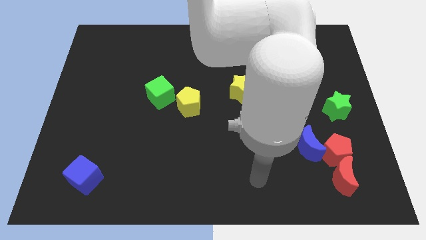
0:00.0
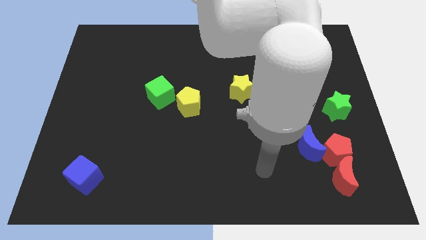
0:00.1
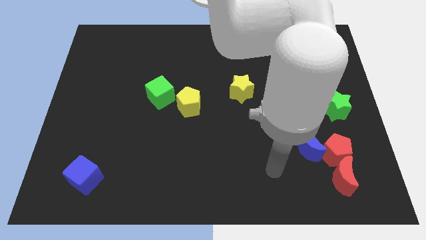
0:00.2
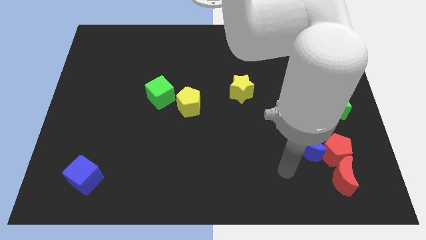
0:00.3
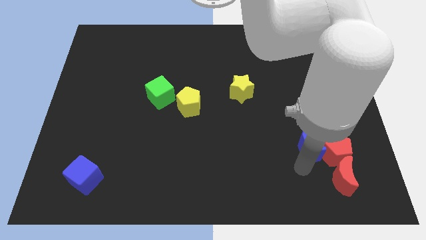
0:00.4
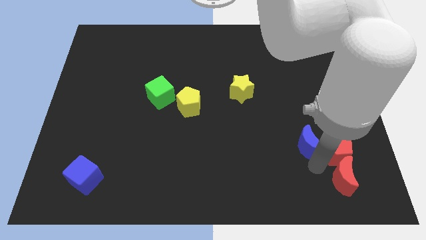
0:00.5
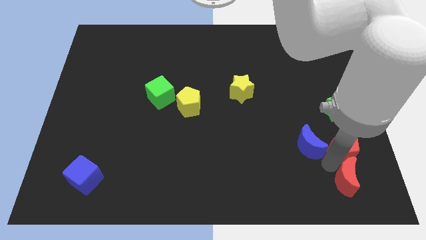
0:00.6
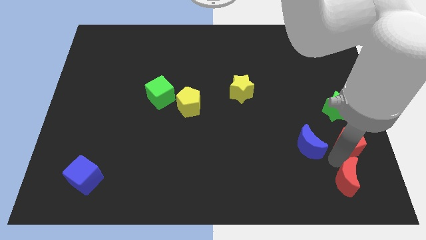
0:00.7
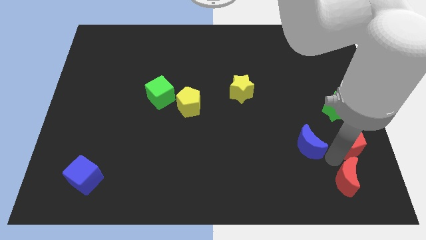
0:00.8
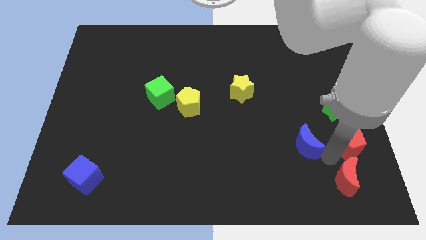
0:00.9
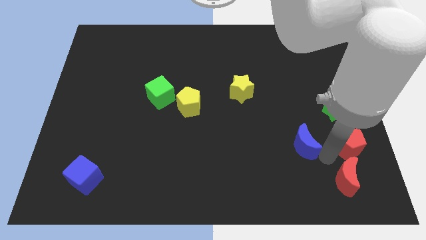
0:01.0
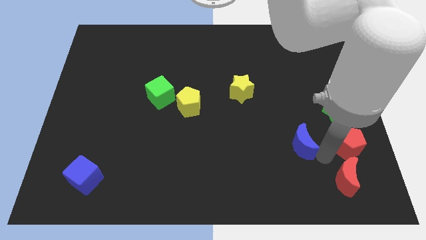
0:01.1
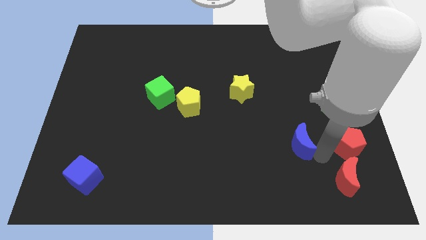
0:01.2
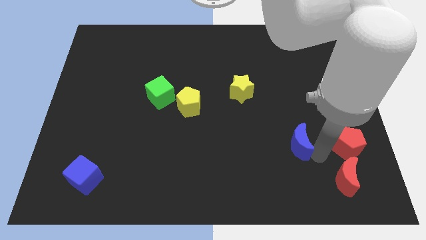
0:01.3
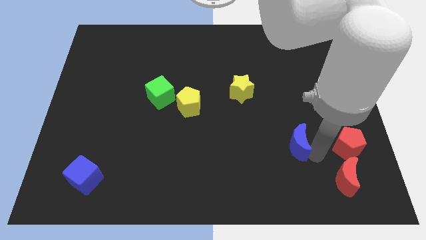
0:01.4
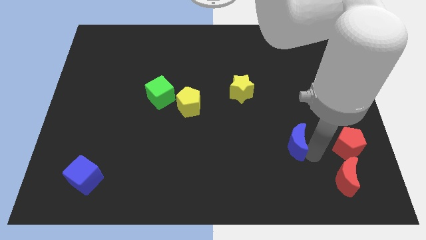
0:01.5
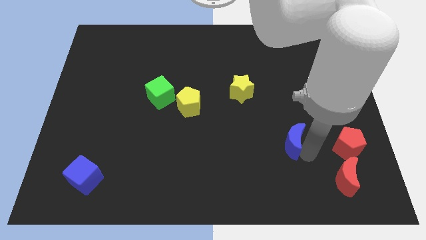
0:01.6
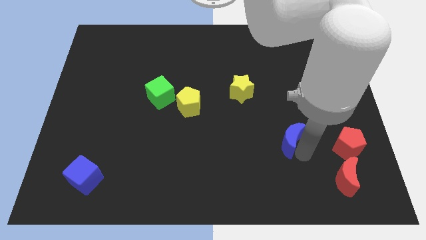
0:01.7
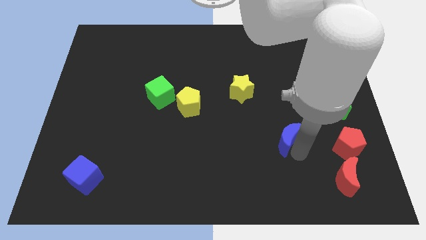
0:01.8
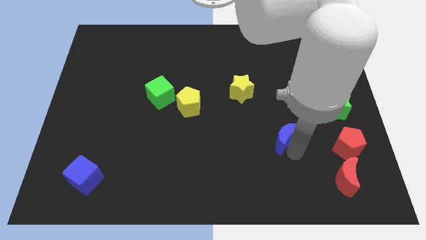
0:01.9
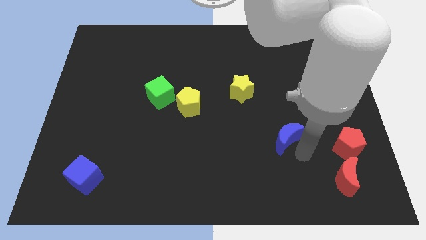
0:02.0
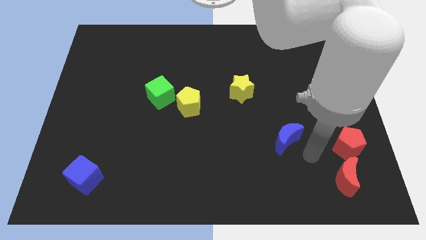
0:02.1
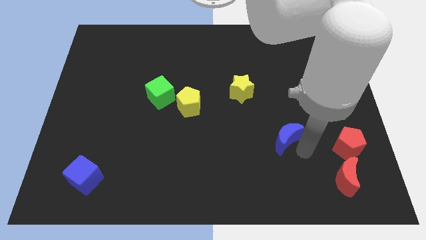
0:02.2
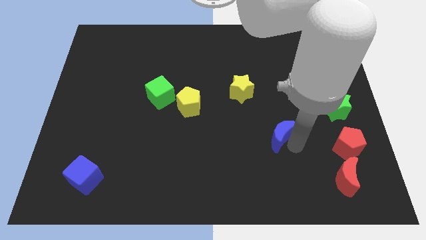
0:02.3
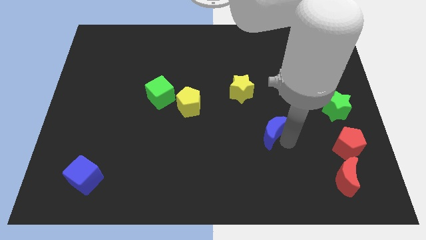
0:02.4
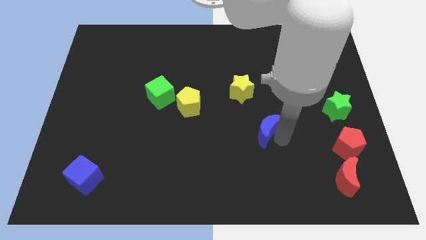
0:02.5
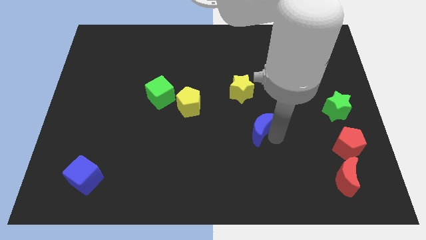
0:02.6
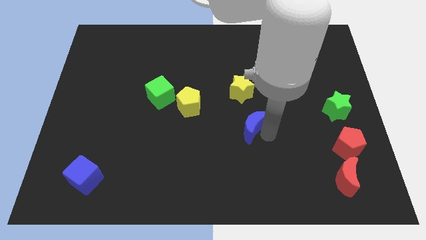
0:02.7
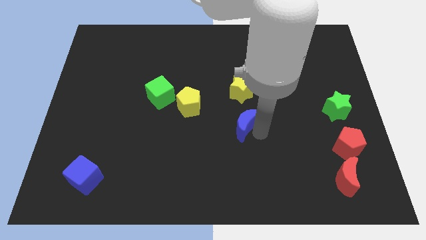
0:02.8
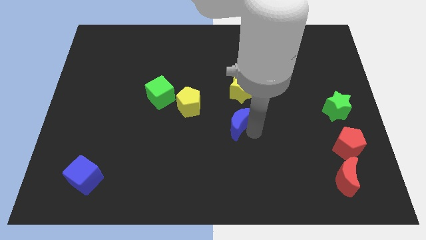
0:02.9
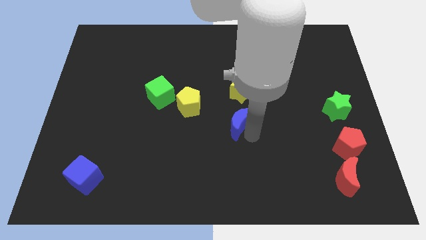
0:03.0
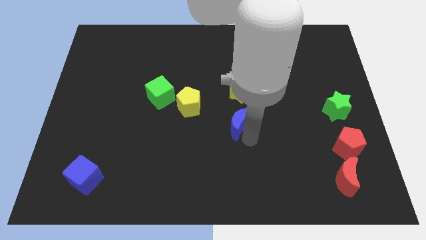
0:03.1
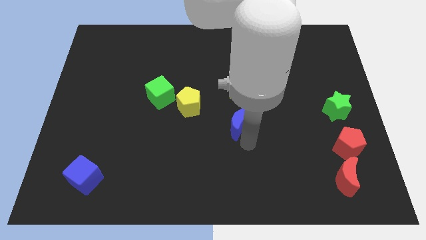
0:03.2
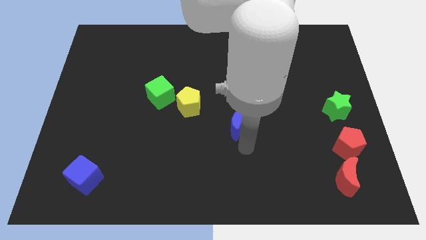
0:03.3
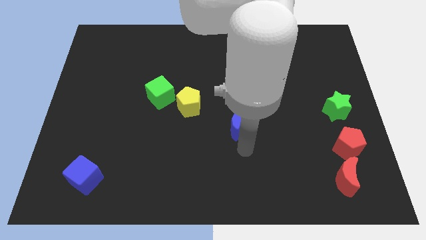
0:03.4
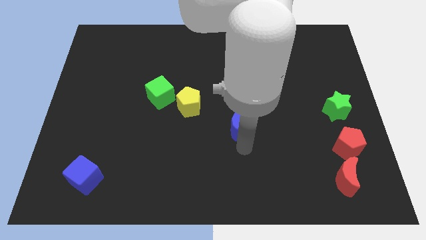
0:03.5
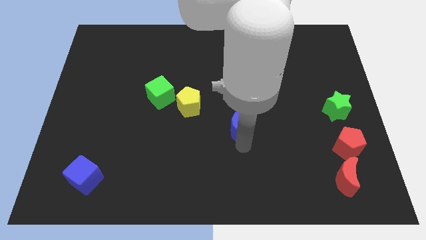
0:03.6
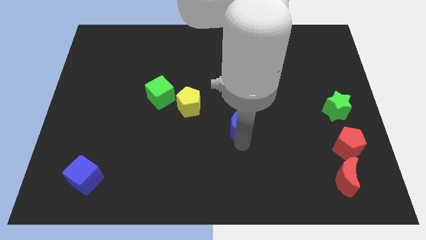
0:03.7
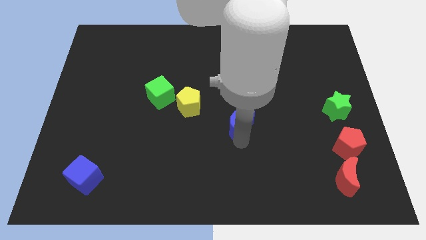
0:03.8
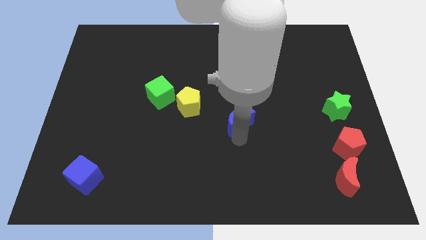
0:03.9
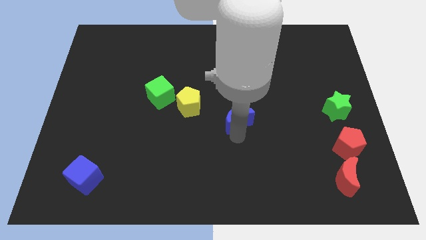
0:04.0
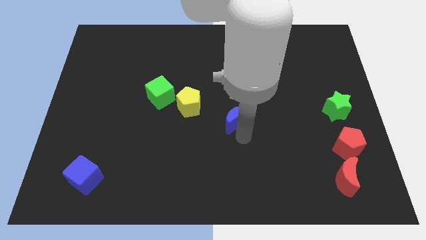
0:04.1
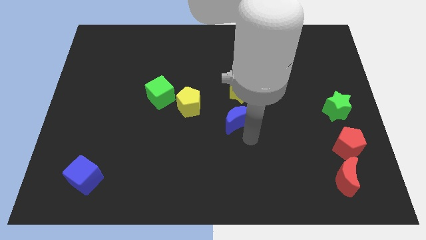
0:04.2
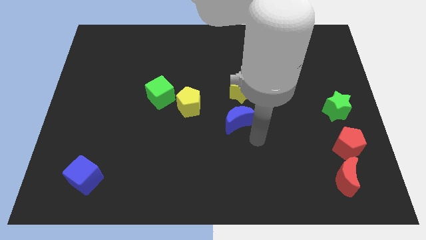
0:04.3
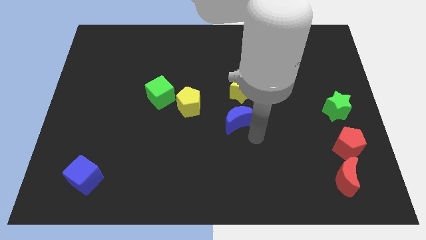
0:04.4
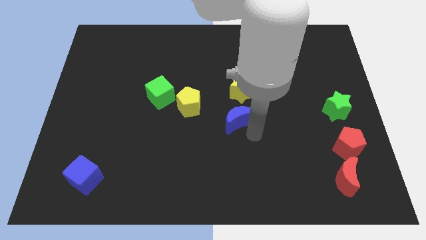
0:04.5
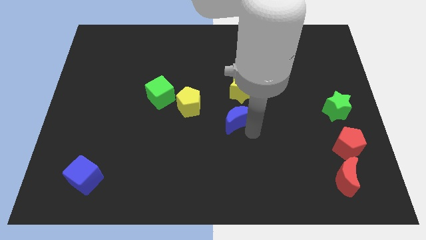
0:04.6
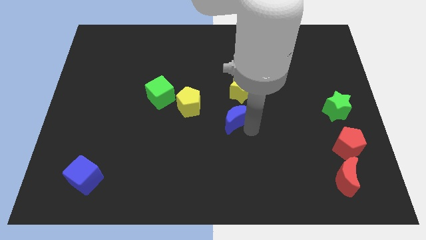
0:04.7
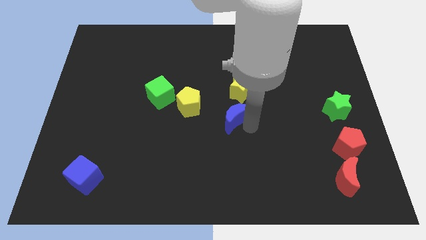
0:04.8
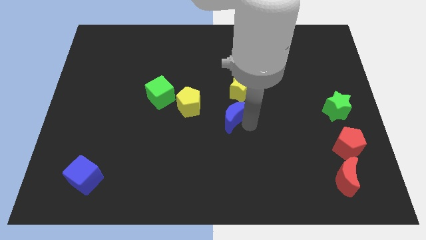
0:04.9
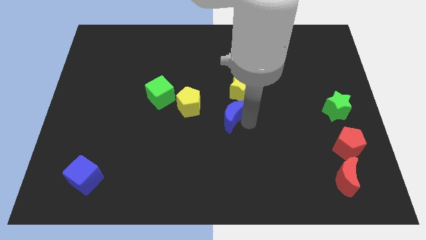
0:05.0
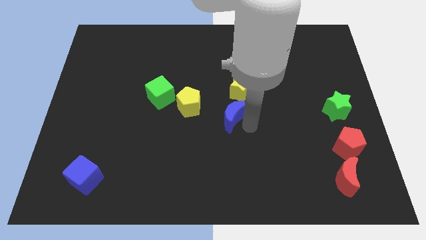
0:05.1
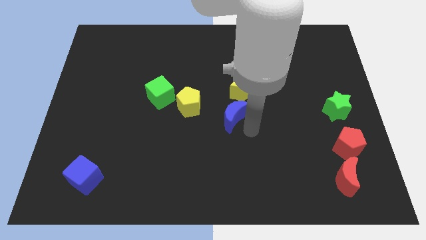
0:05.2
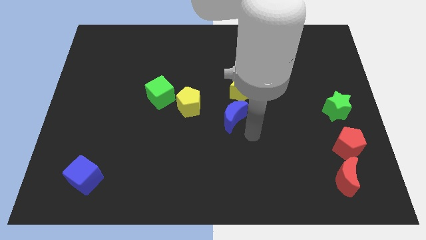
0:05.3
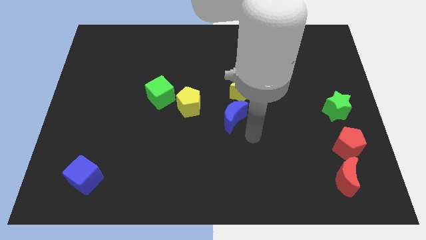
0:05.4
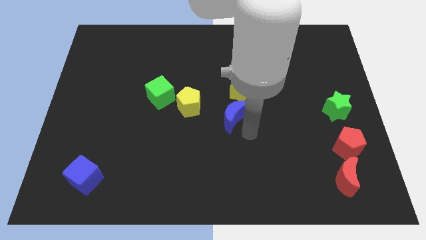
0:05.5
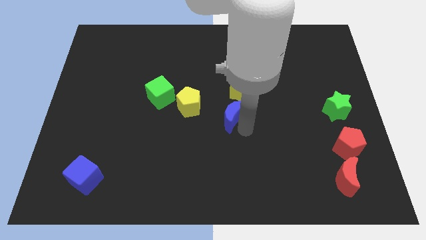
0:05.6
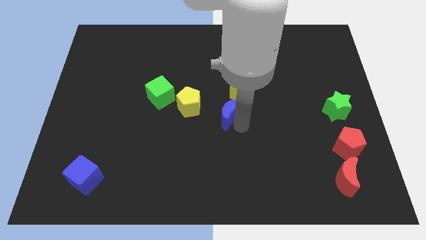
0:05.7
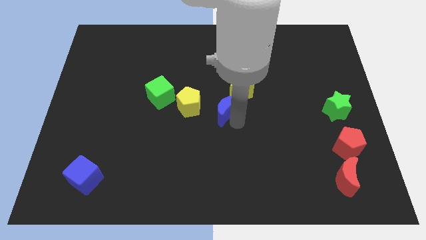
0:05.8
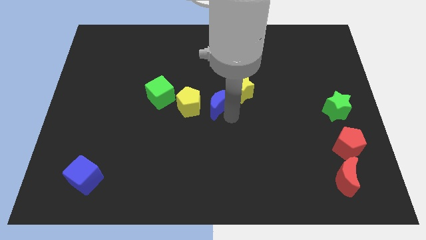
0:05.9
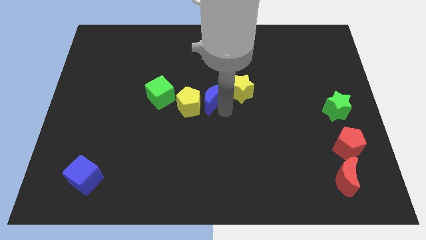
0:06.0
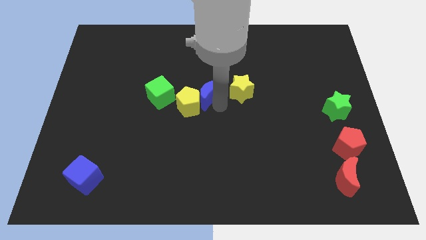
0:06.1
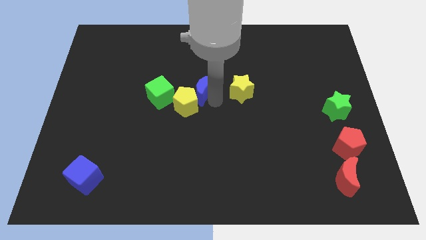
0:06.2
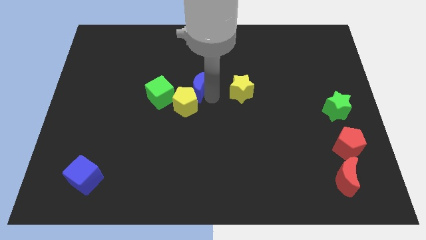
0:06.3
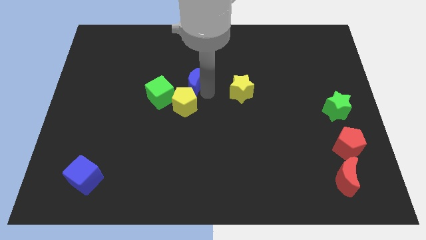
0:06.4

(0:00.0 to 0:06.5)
push the blue moon diagonally up and to the right of the green cube

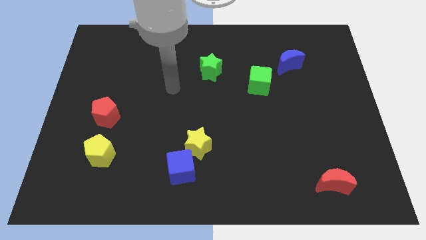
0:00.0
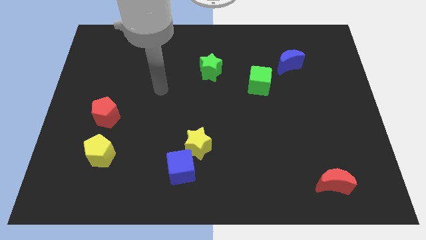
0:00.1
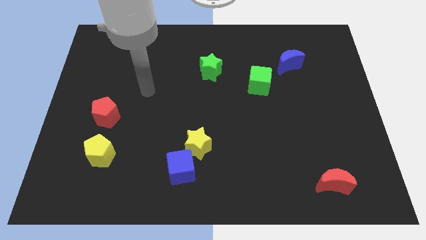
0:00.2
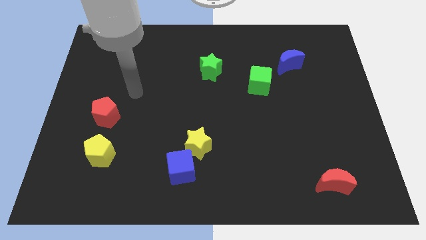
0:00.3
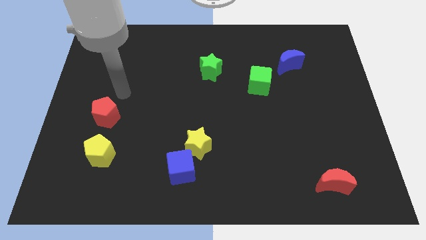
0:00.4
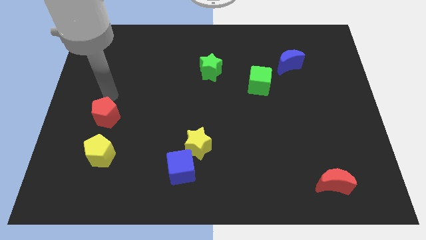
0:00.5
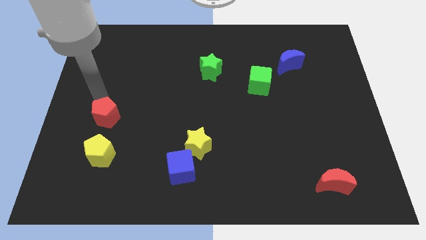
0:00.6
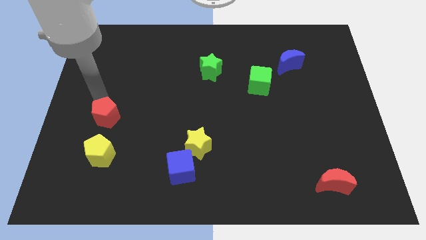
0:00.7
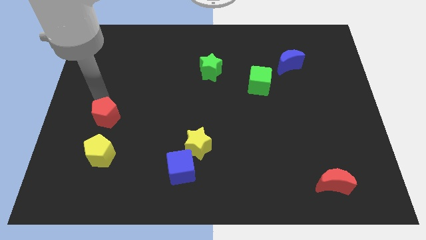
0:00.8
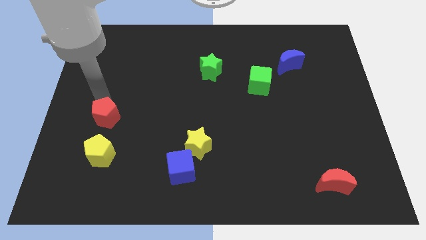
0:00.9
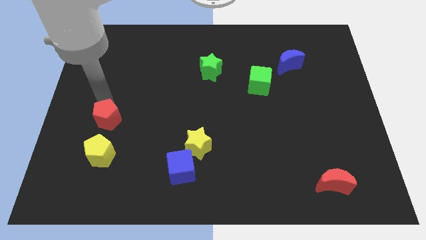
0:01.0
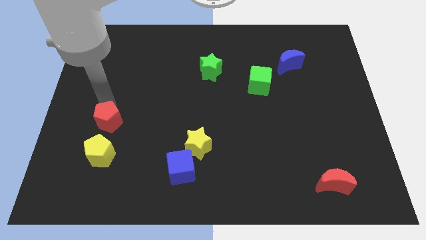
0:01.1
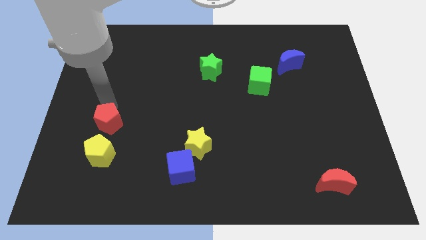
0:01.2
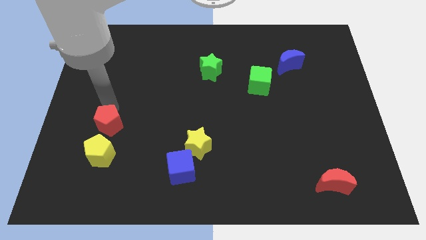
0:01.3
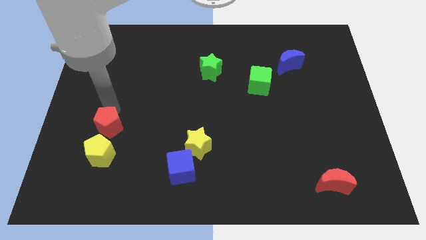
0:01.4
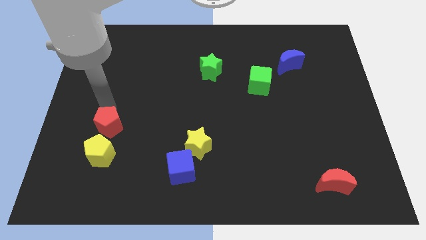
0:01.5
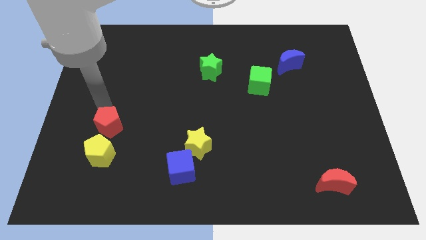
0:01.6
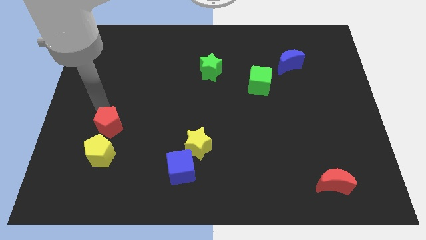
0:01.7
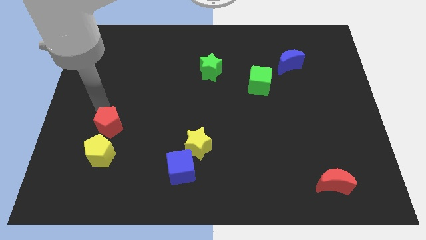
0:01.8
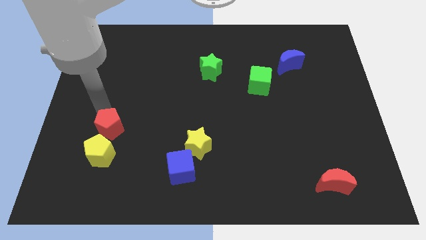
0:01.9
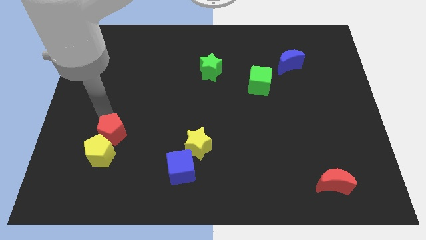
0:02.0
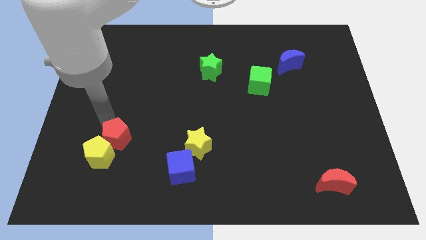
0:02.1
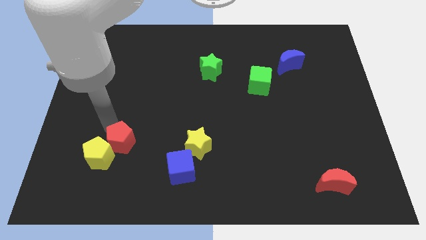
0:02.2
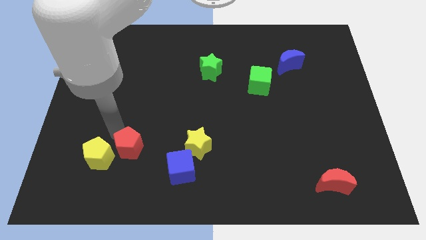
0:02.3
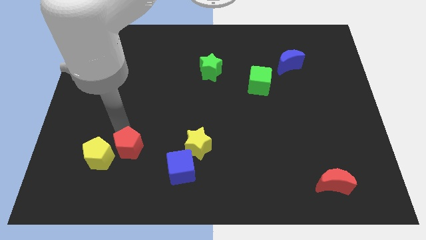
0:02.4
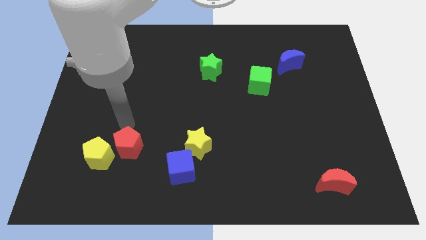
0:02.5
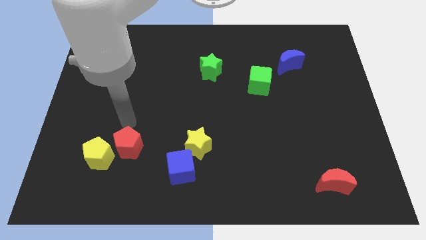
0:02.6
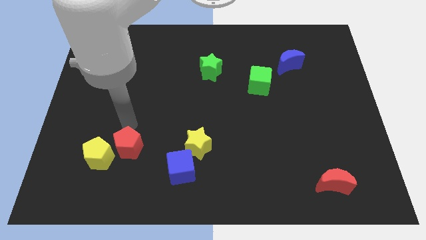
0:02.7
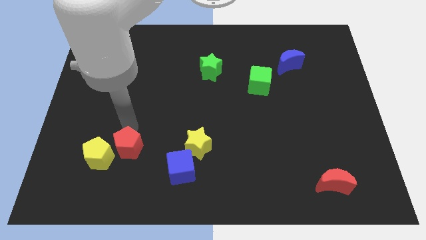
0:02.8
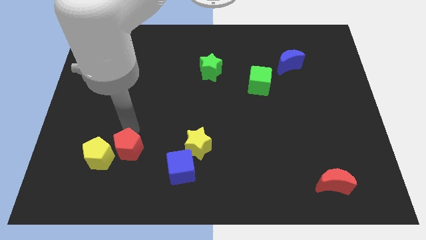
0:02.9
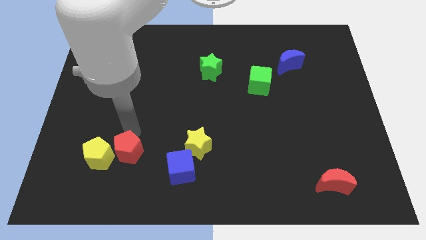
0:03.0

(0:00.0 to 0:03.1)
put the red pentagon just left of the blue cube
